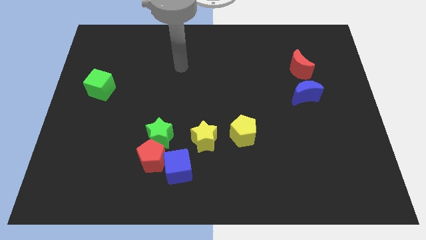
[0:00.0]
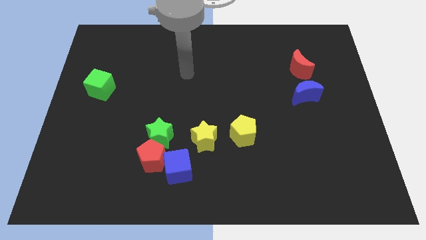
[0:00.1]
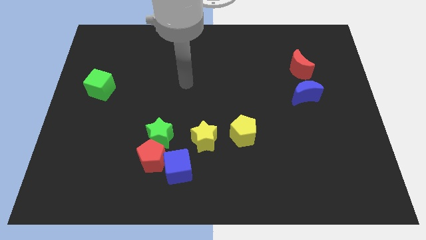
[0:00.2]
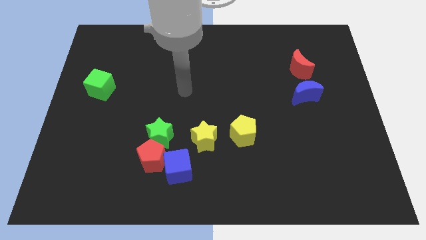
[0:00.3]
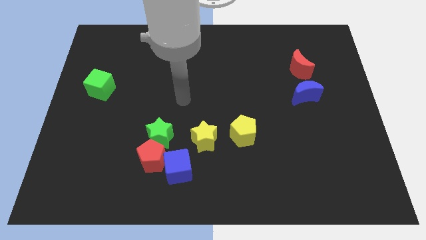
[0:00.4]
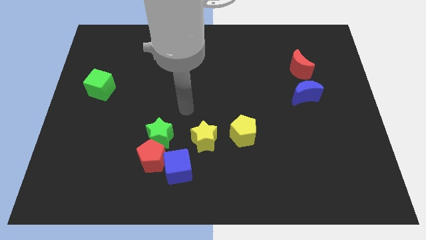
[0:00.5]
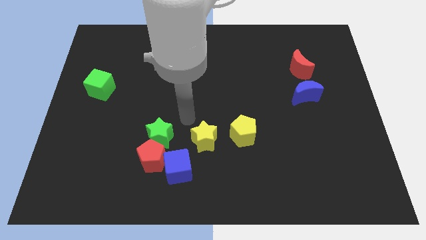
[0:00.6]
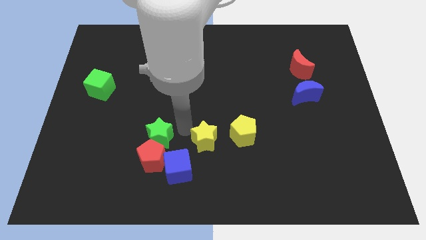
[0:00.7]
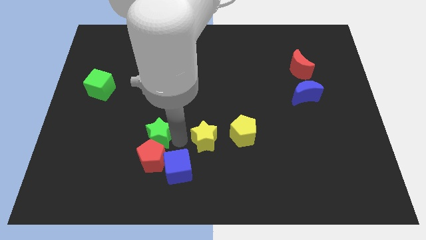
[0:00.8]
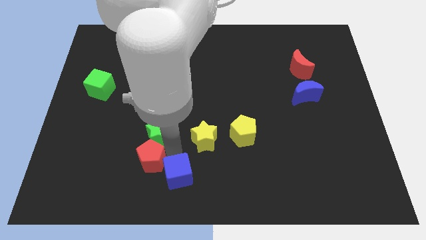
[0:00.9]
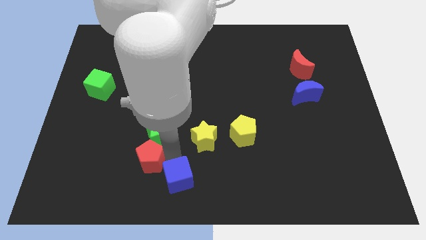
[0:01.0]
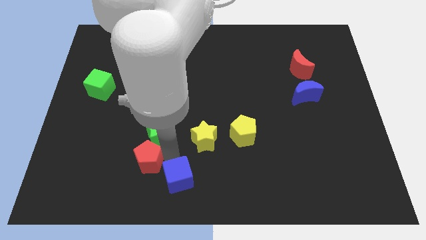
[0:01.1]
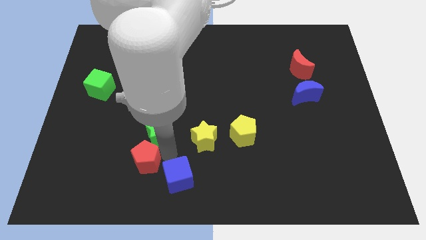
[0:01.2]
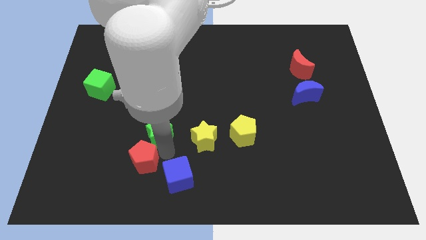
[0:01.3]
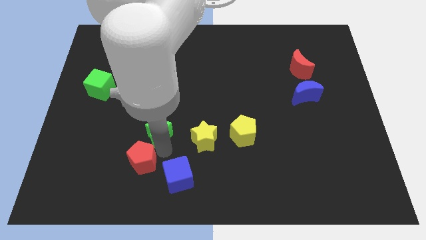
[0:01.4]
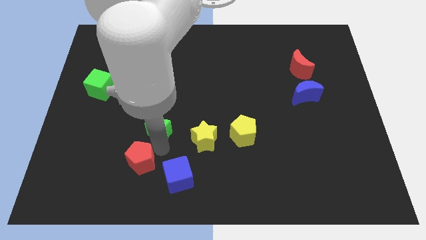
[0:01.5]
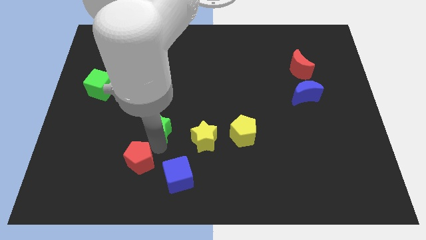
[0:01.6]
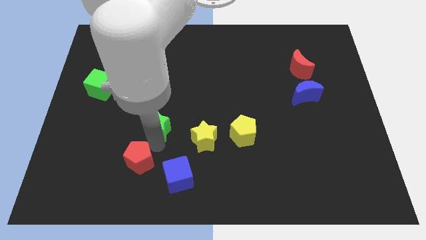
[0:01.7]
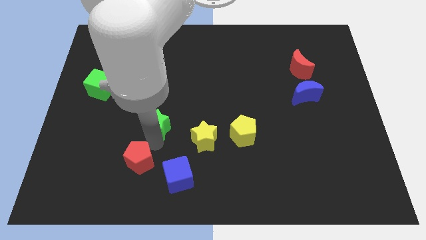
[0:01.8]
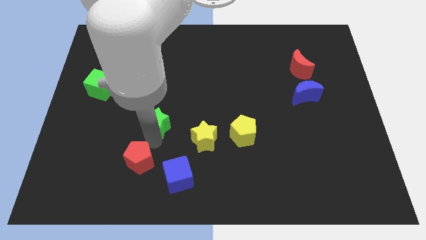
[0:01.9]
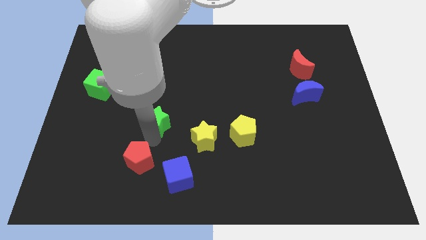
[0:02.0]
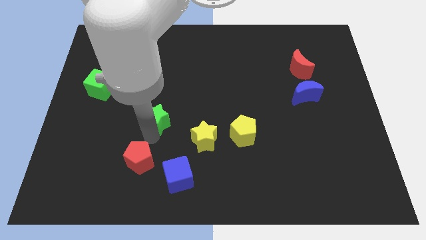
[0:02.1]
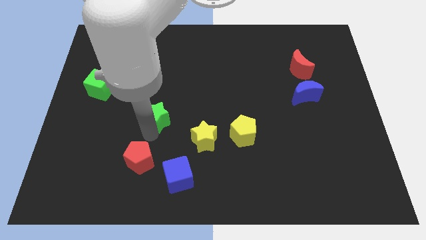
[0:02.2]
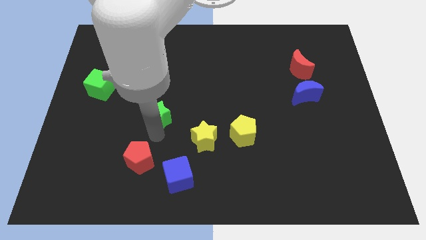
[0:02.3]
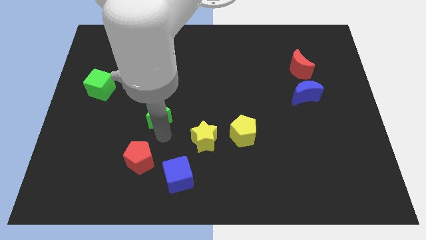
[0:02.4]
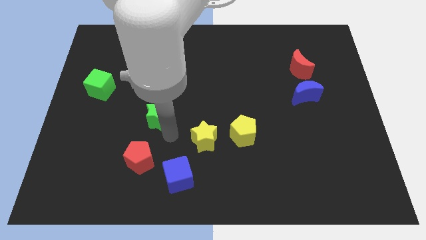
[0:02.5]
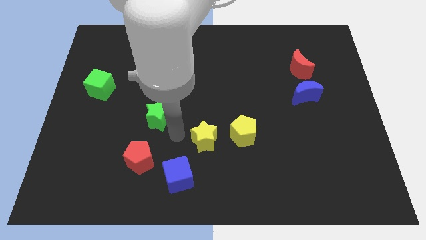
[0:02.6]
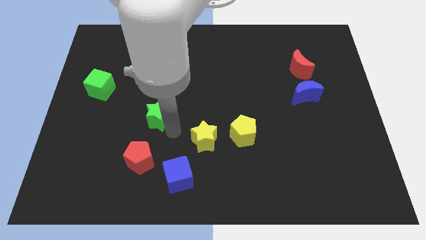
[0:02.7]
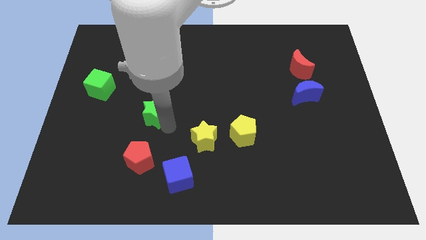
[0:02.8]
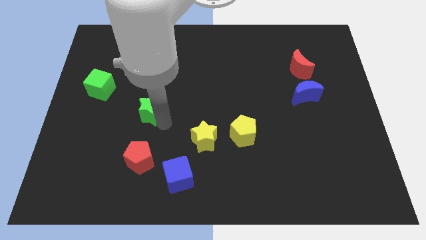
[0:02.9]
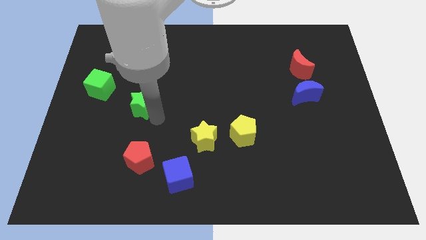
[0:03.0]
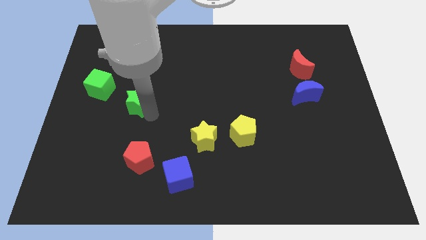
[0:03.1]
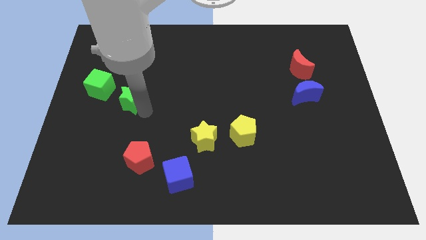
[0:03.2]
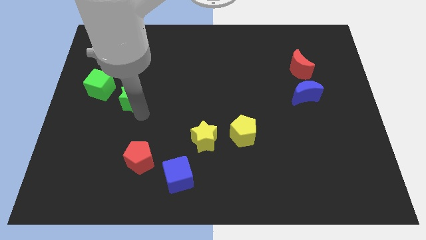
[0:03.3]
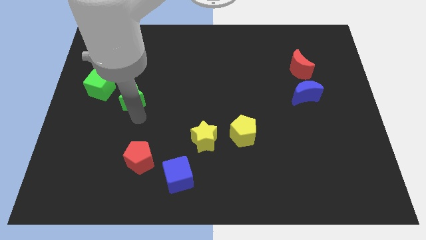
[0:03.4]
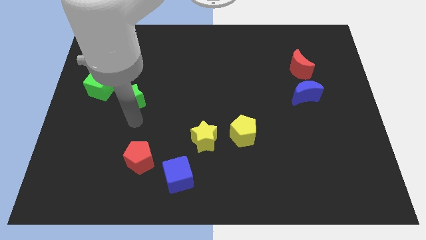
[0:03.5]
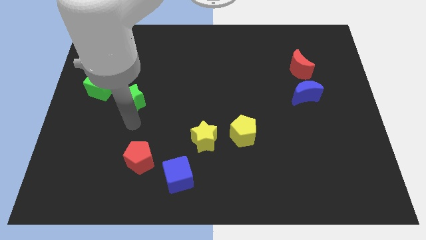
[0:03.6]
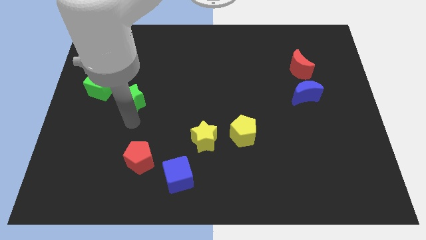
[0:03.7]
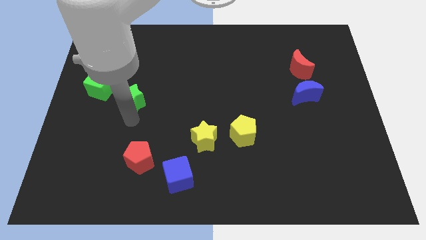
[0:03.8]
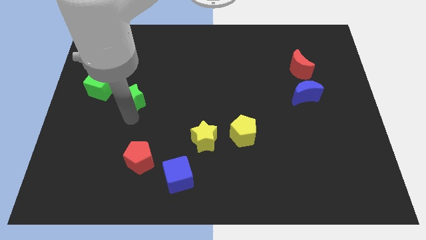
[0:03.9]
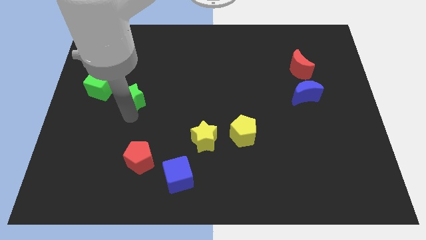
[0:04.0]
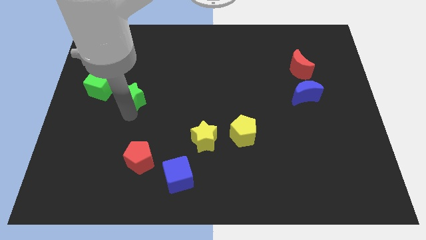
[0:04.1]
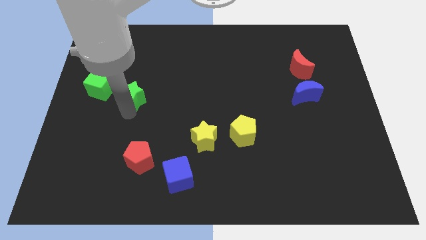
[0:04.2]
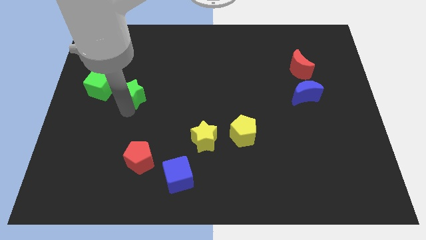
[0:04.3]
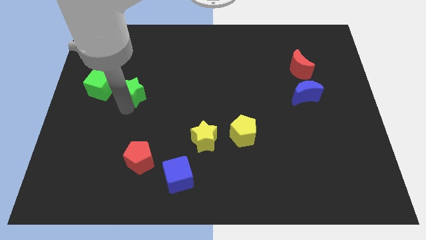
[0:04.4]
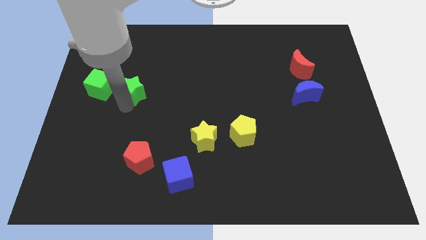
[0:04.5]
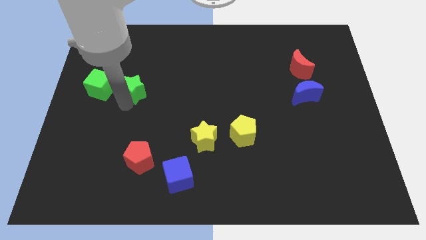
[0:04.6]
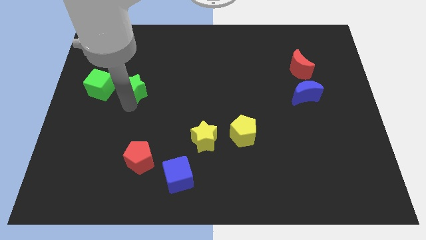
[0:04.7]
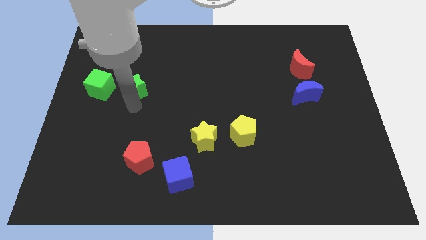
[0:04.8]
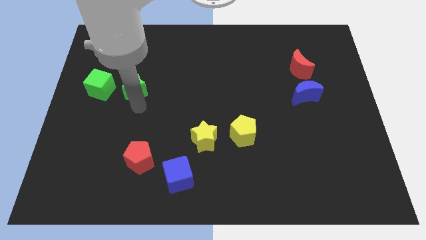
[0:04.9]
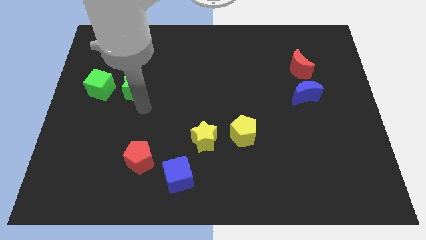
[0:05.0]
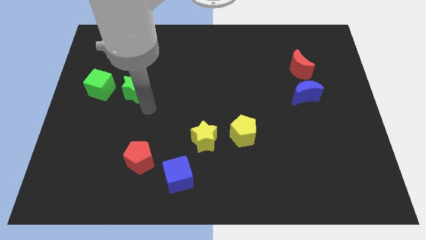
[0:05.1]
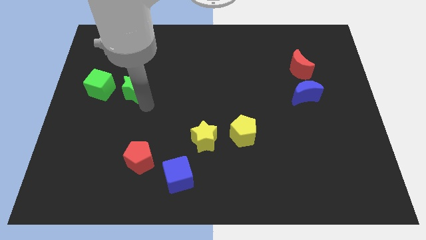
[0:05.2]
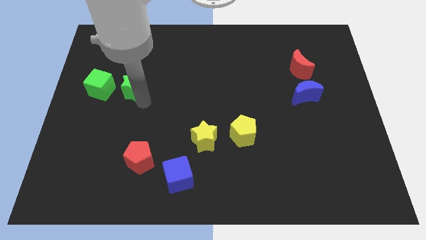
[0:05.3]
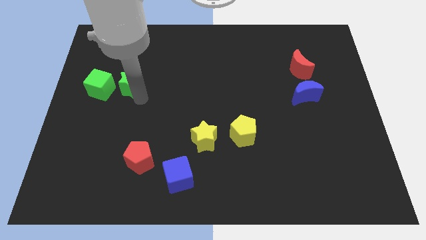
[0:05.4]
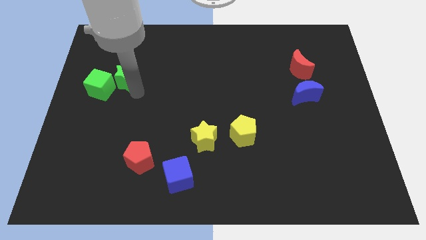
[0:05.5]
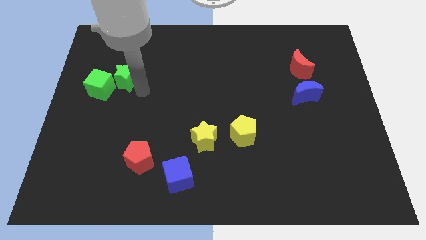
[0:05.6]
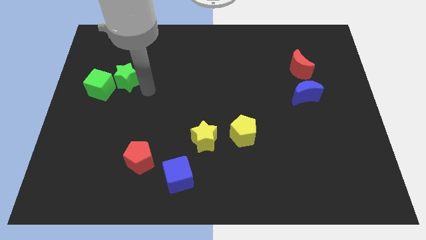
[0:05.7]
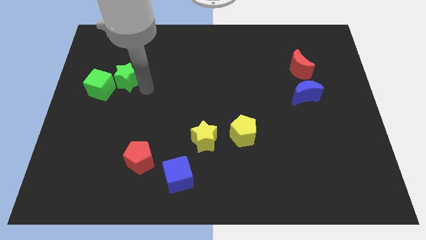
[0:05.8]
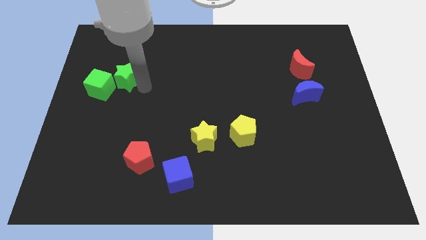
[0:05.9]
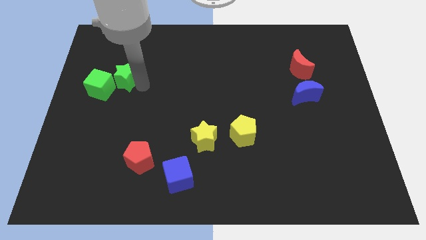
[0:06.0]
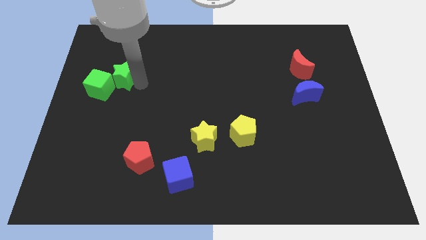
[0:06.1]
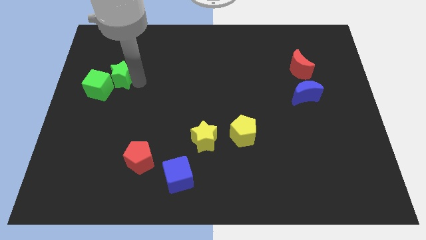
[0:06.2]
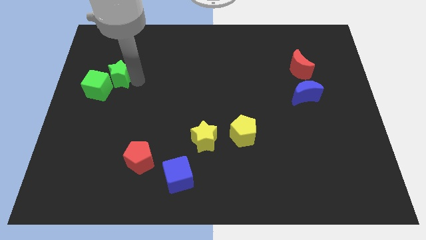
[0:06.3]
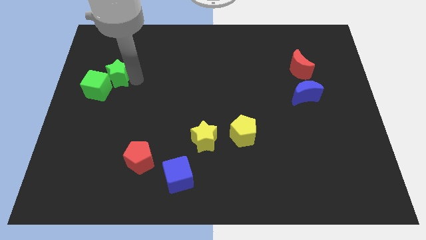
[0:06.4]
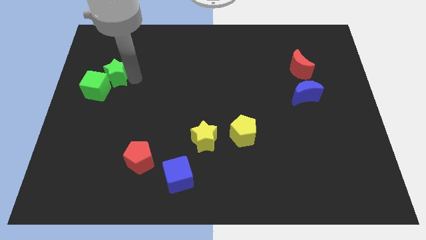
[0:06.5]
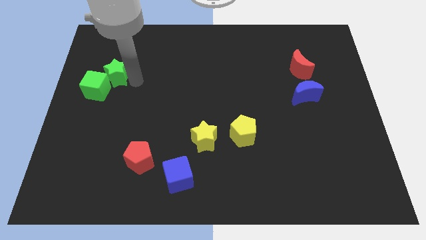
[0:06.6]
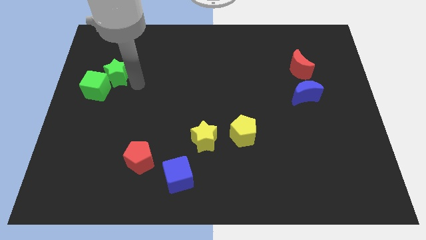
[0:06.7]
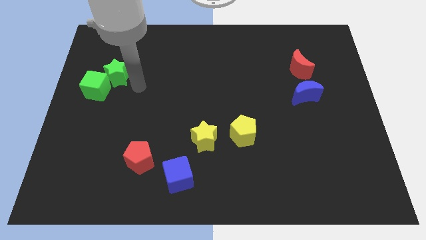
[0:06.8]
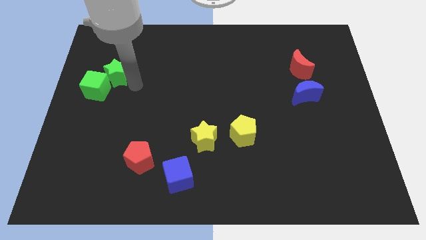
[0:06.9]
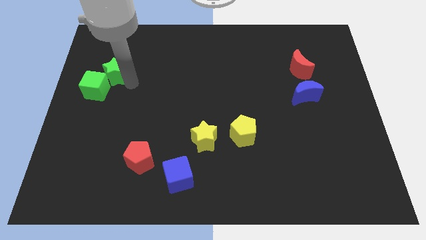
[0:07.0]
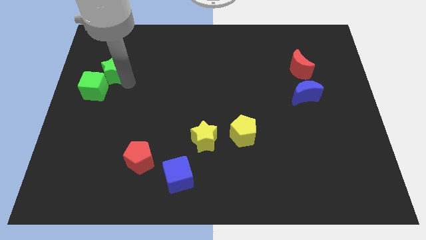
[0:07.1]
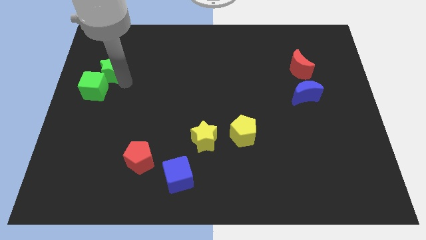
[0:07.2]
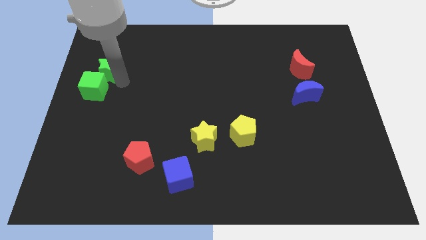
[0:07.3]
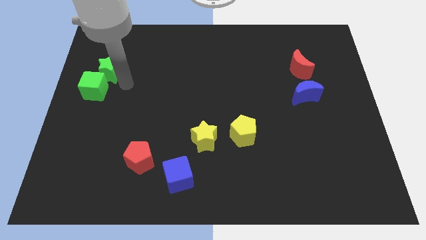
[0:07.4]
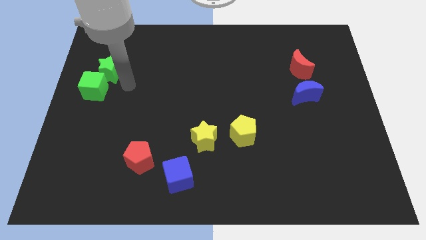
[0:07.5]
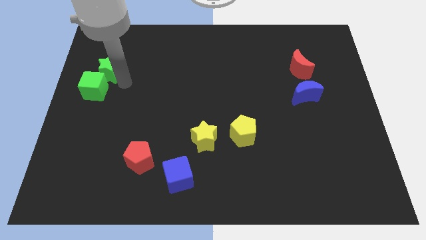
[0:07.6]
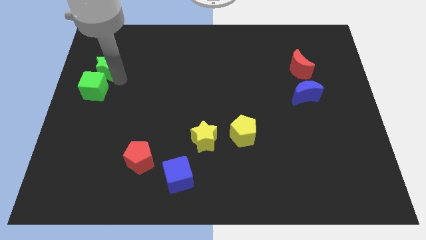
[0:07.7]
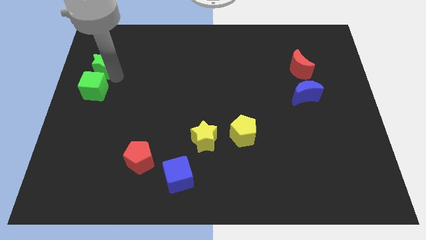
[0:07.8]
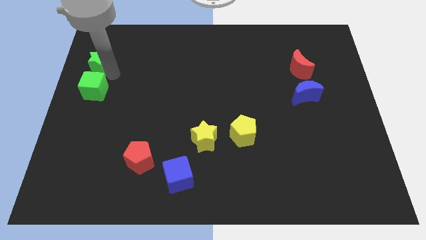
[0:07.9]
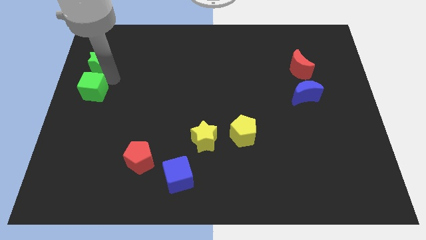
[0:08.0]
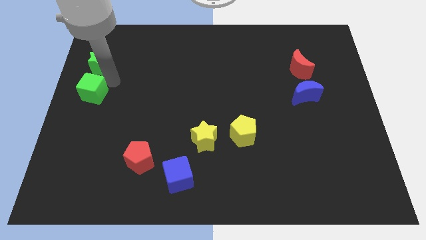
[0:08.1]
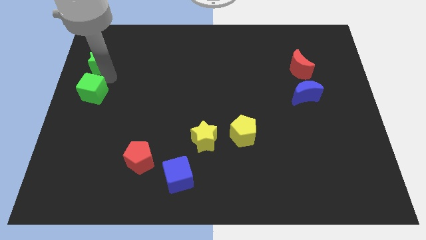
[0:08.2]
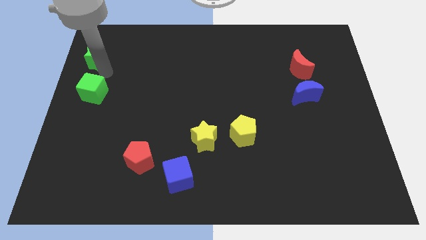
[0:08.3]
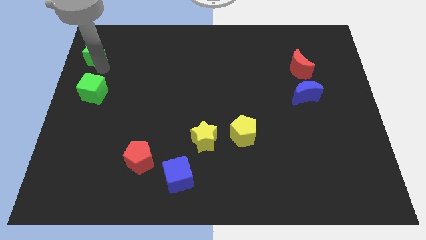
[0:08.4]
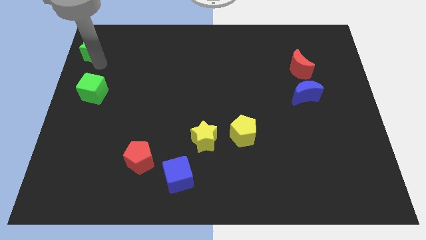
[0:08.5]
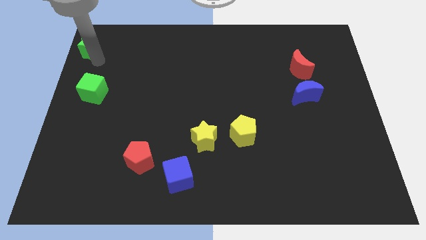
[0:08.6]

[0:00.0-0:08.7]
push the green star to the top left of the board
